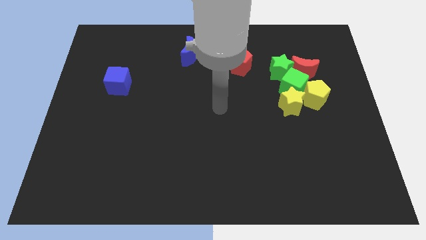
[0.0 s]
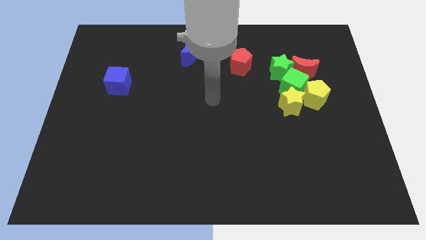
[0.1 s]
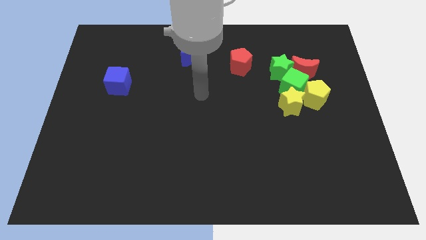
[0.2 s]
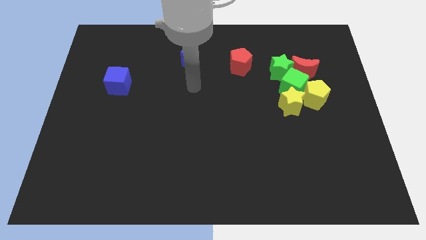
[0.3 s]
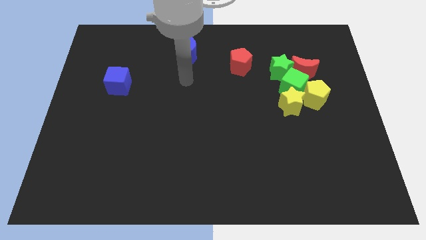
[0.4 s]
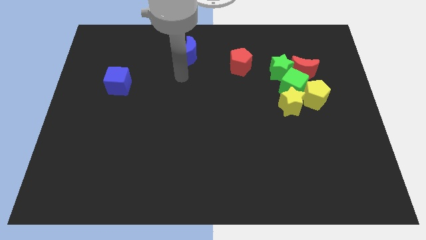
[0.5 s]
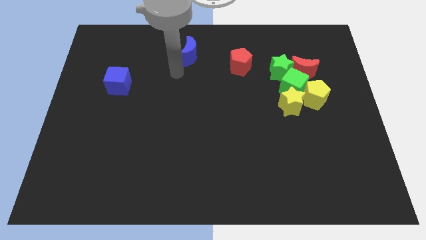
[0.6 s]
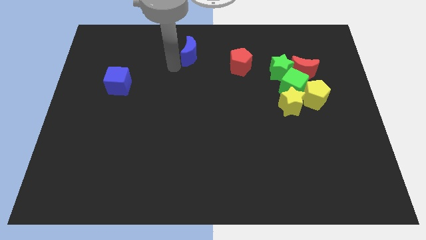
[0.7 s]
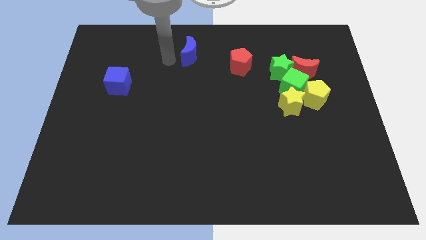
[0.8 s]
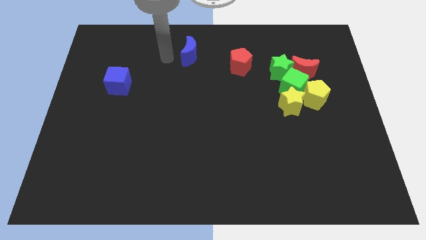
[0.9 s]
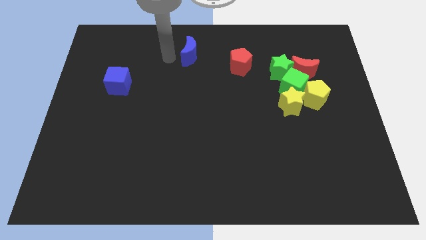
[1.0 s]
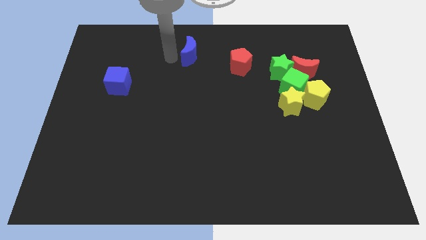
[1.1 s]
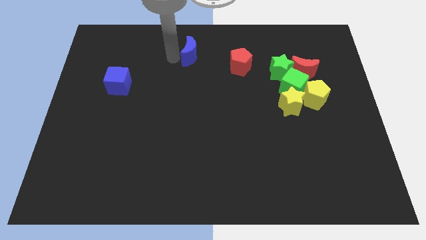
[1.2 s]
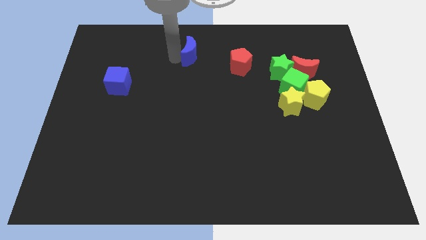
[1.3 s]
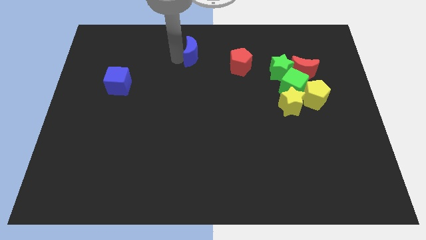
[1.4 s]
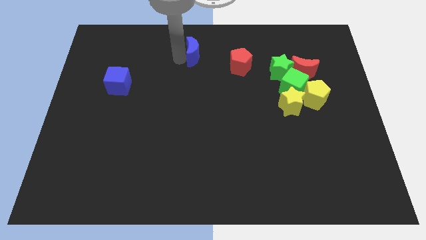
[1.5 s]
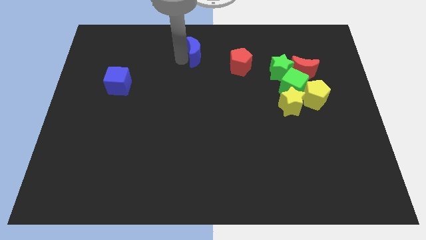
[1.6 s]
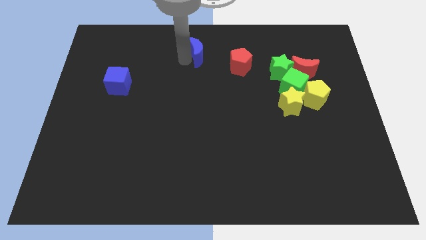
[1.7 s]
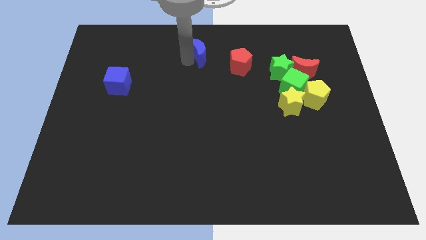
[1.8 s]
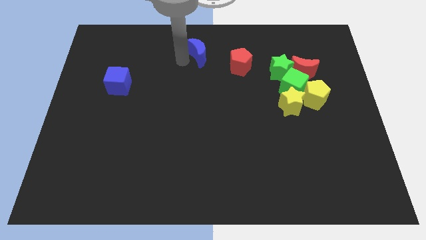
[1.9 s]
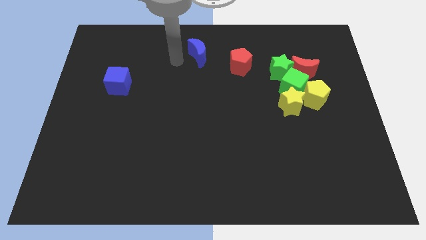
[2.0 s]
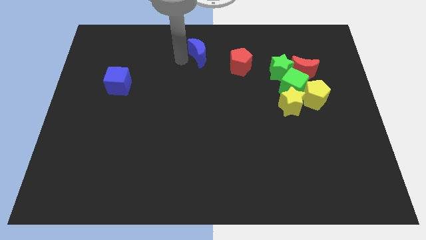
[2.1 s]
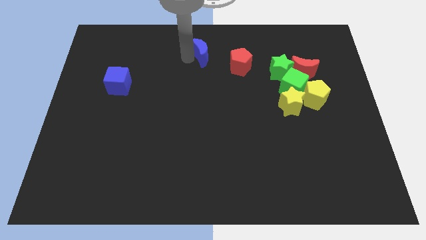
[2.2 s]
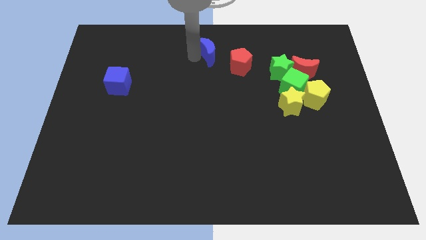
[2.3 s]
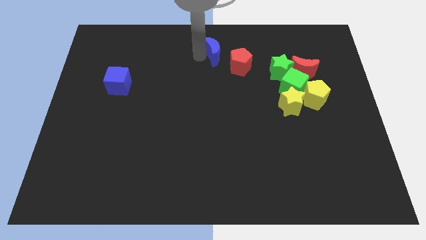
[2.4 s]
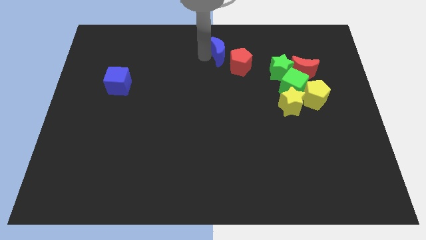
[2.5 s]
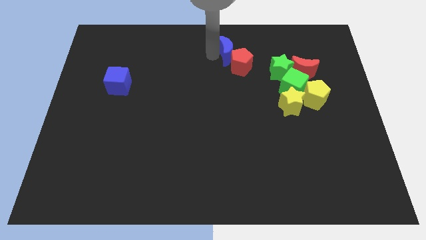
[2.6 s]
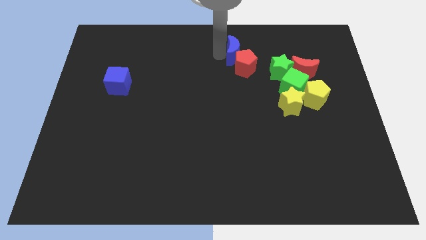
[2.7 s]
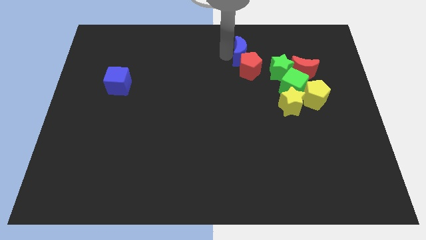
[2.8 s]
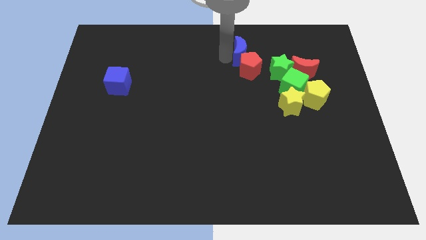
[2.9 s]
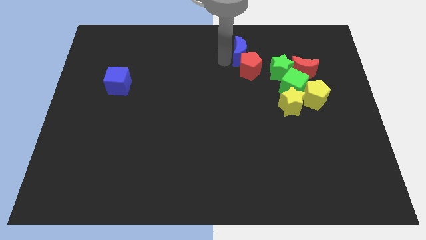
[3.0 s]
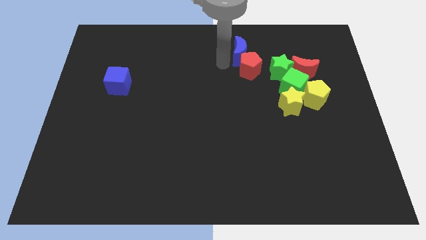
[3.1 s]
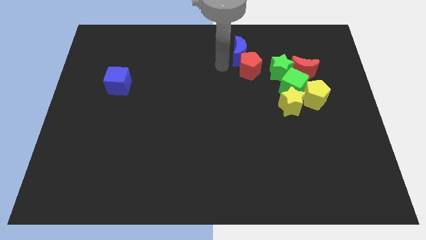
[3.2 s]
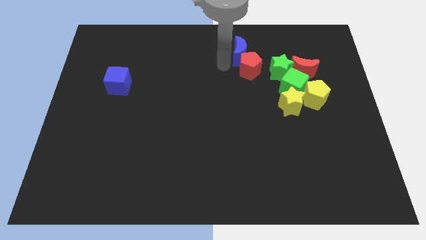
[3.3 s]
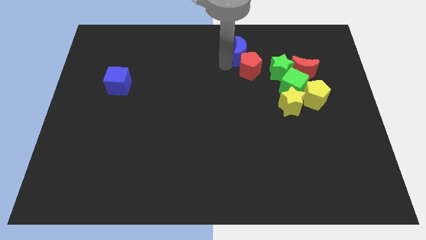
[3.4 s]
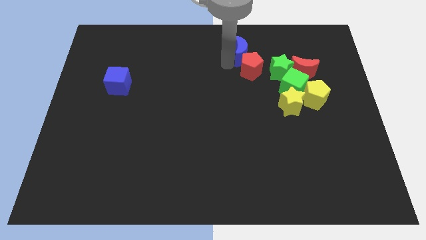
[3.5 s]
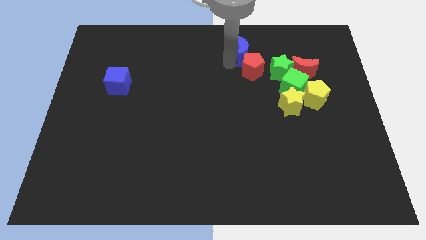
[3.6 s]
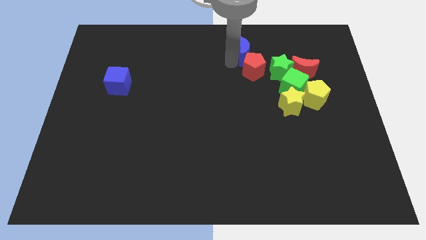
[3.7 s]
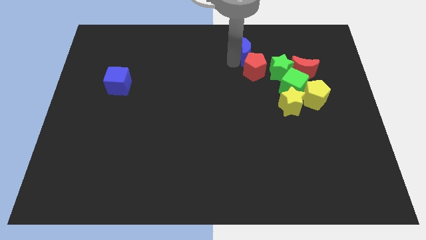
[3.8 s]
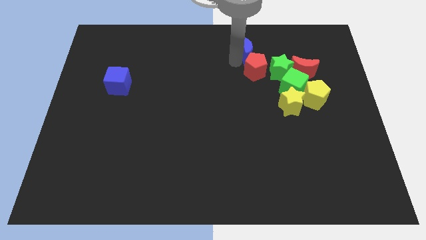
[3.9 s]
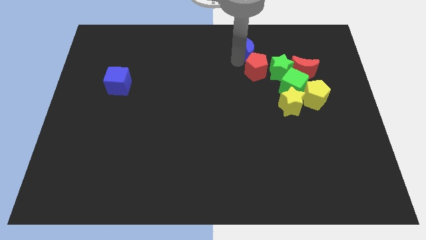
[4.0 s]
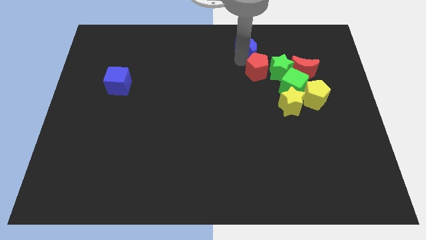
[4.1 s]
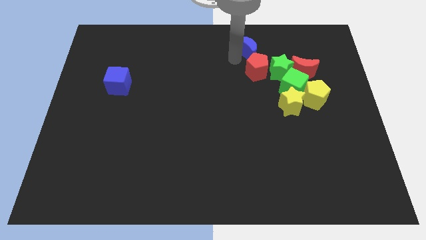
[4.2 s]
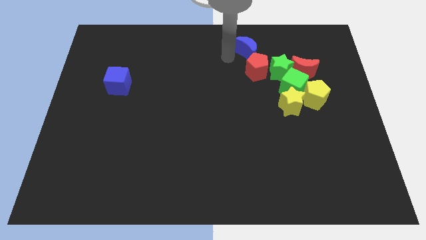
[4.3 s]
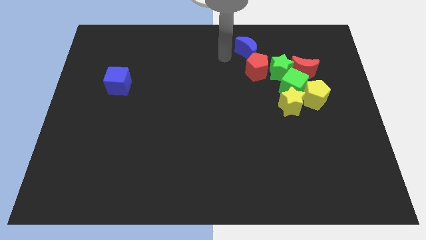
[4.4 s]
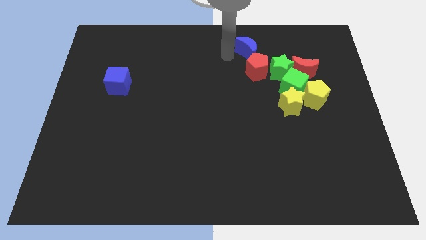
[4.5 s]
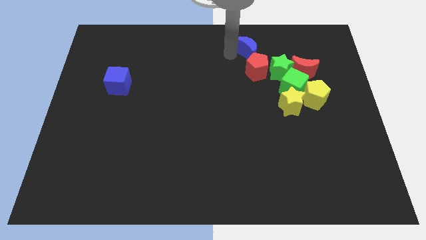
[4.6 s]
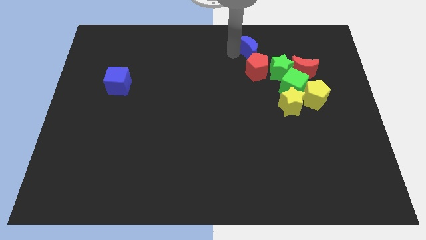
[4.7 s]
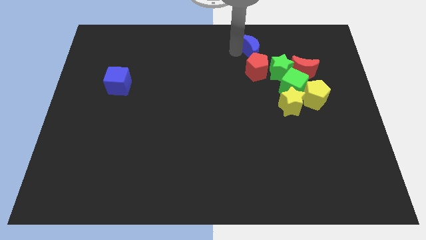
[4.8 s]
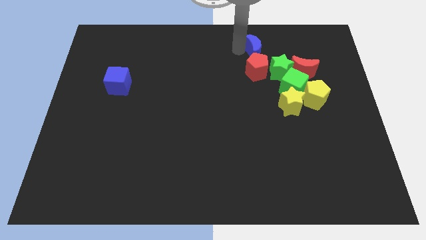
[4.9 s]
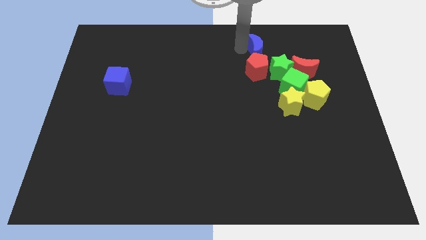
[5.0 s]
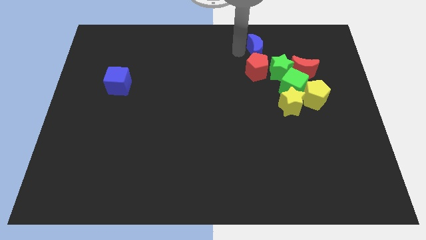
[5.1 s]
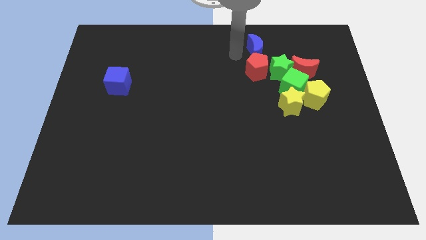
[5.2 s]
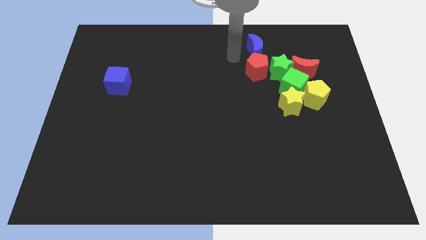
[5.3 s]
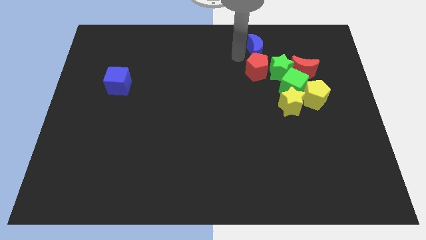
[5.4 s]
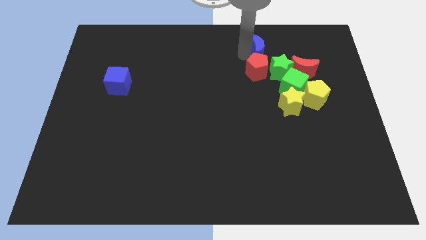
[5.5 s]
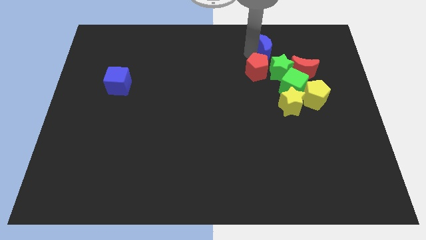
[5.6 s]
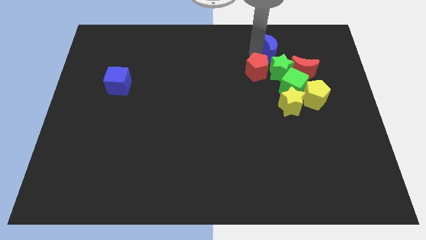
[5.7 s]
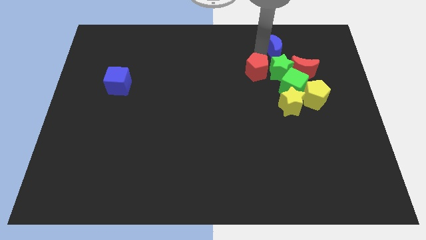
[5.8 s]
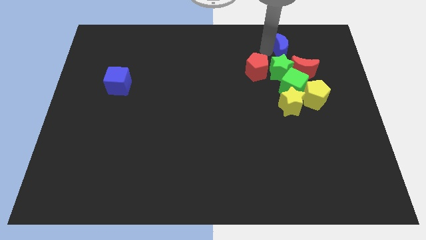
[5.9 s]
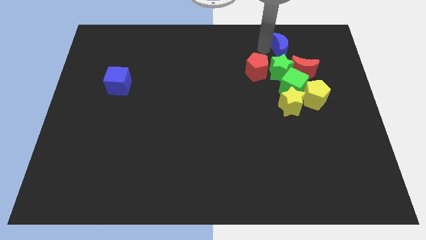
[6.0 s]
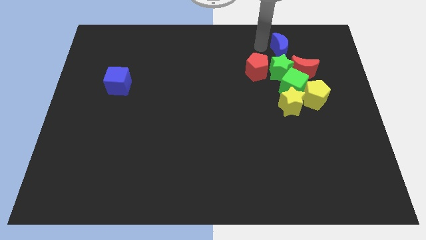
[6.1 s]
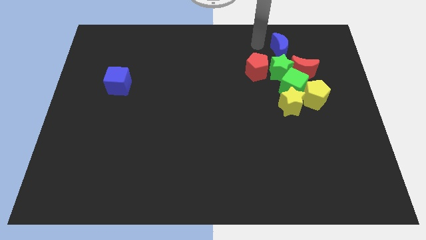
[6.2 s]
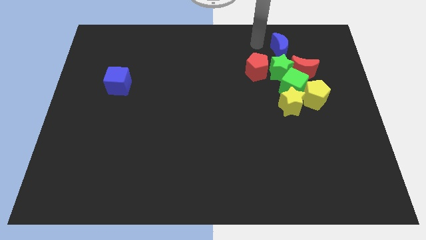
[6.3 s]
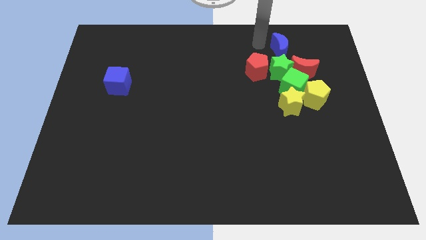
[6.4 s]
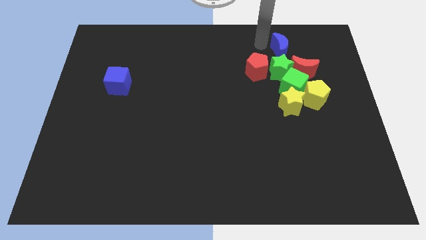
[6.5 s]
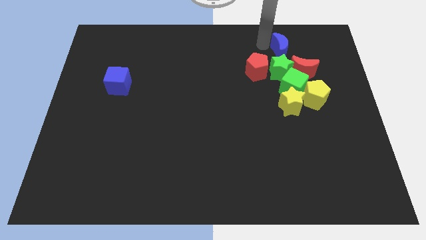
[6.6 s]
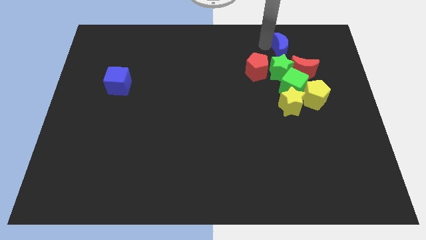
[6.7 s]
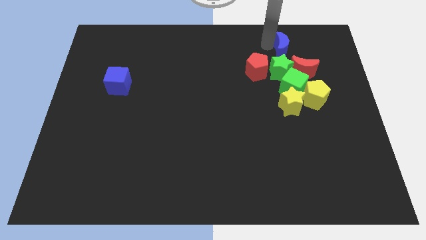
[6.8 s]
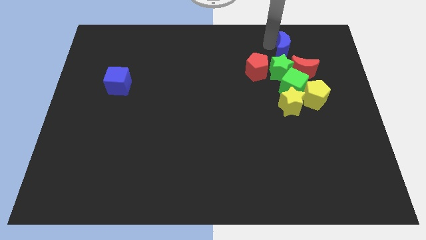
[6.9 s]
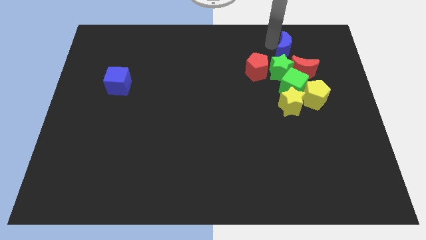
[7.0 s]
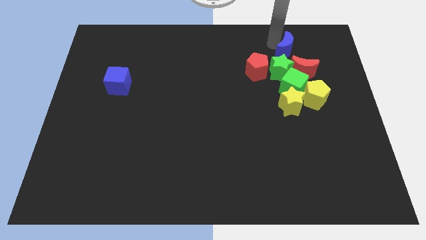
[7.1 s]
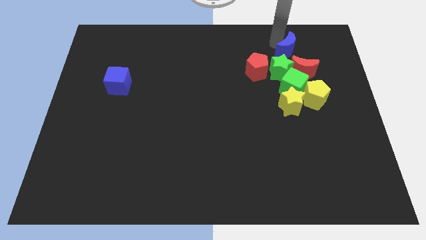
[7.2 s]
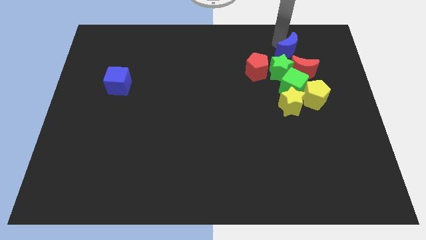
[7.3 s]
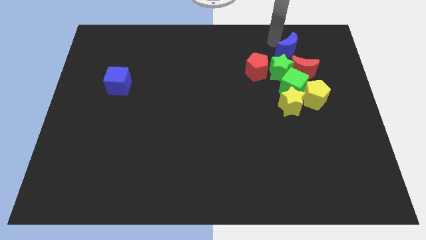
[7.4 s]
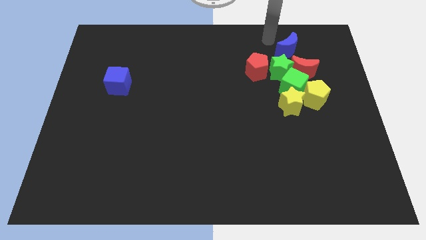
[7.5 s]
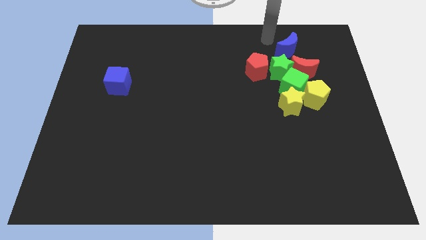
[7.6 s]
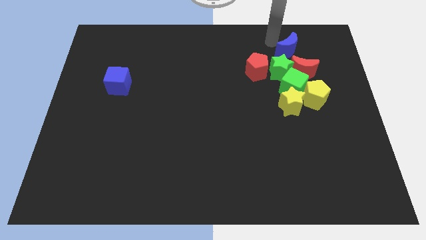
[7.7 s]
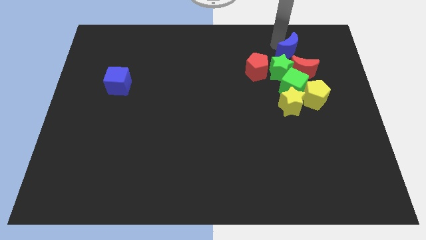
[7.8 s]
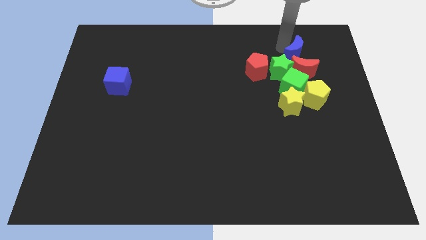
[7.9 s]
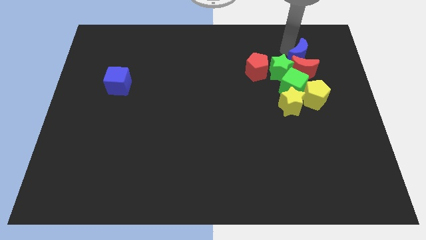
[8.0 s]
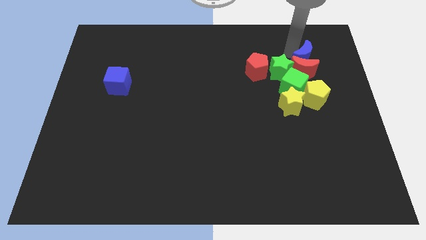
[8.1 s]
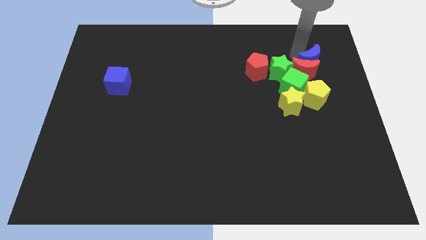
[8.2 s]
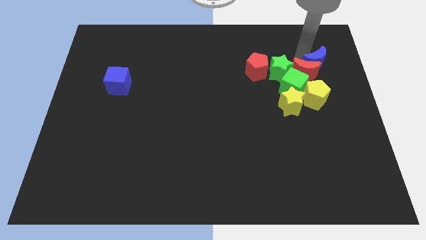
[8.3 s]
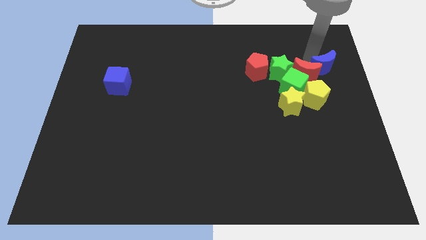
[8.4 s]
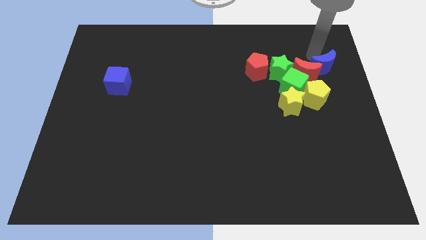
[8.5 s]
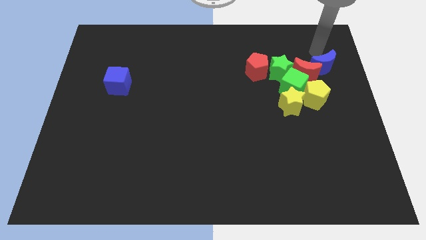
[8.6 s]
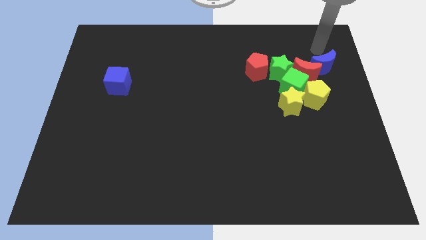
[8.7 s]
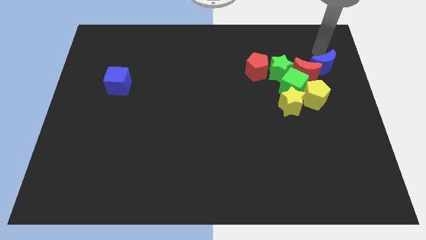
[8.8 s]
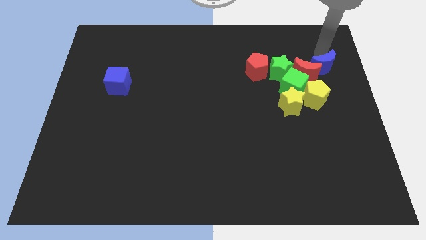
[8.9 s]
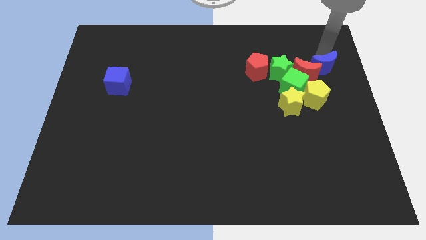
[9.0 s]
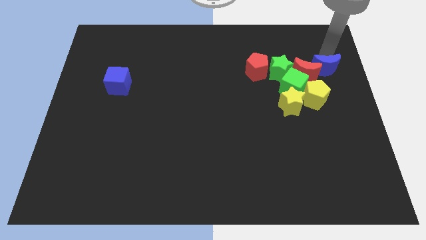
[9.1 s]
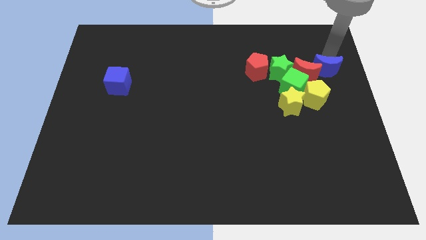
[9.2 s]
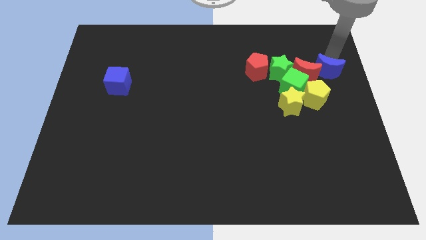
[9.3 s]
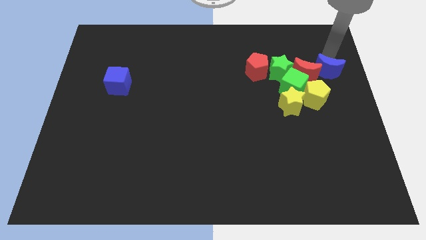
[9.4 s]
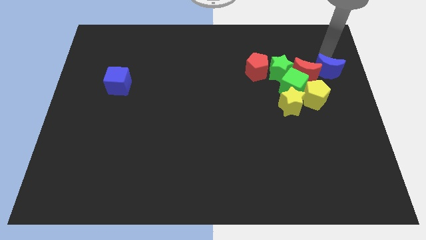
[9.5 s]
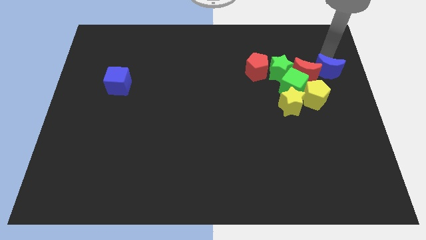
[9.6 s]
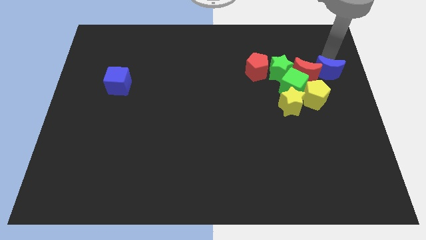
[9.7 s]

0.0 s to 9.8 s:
put the blue moon to the bottom right of the red moon
